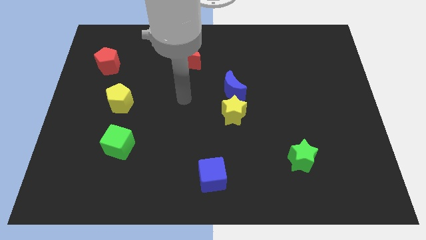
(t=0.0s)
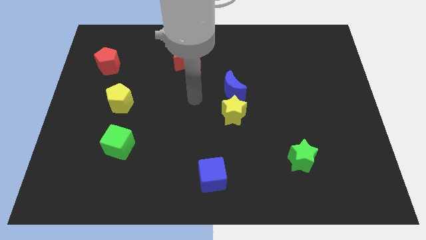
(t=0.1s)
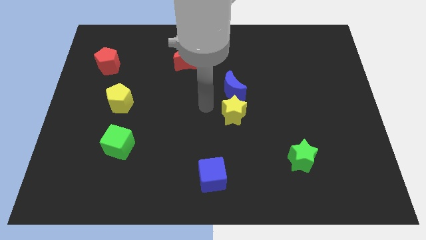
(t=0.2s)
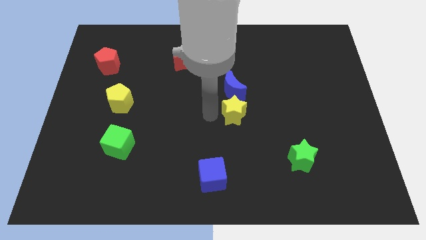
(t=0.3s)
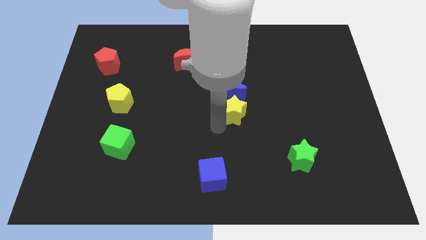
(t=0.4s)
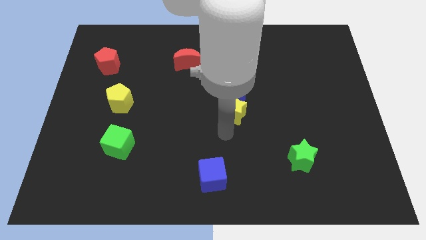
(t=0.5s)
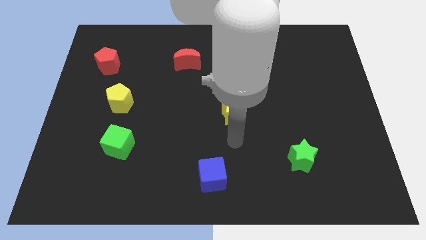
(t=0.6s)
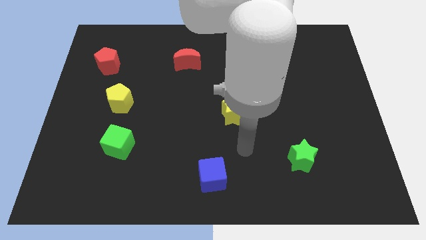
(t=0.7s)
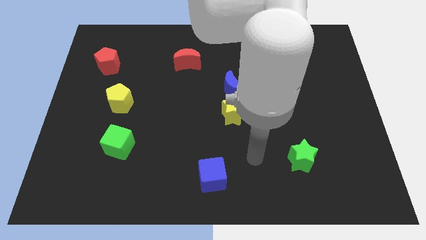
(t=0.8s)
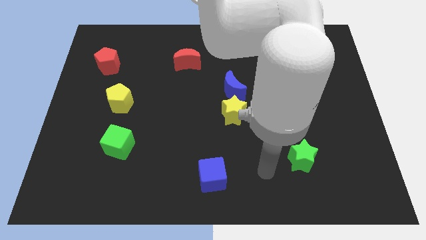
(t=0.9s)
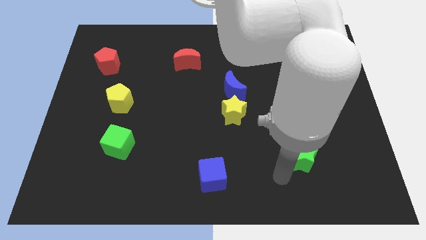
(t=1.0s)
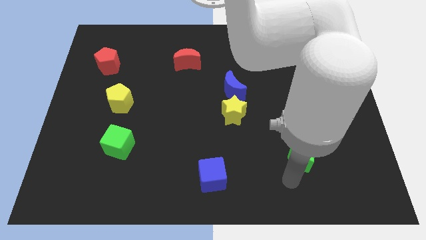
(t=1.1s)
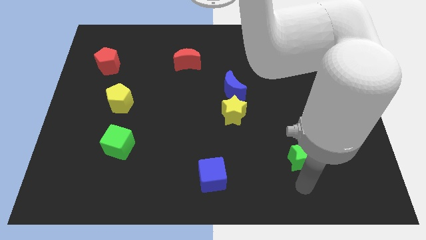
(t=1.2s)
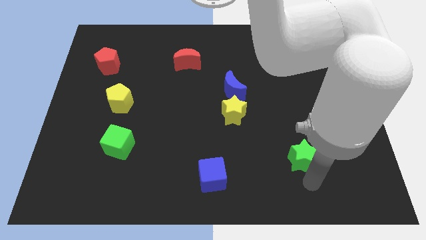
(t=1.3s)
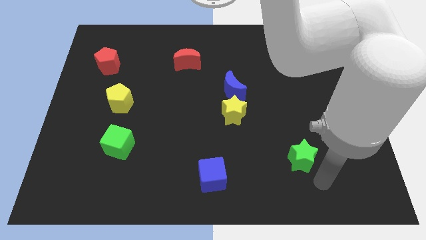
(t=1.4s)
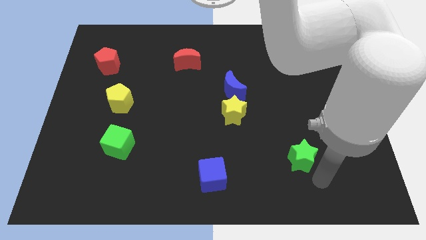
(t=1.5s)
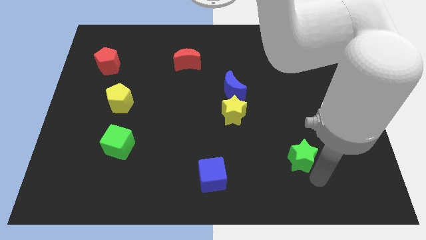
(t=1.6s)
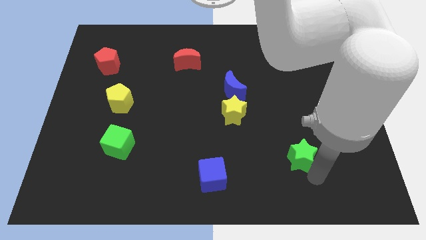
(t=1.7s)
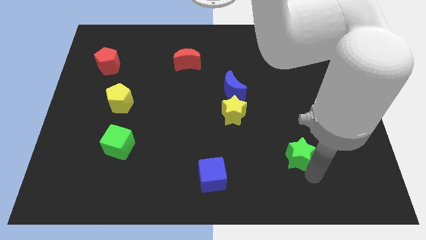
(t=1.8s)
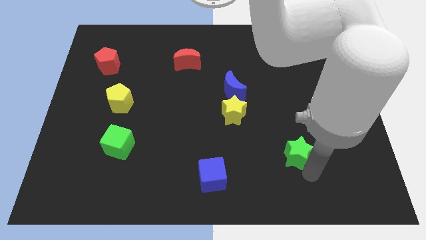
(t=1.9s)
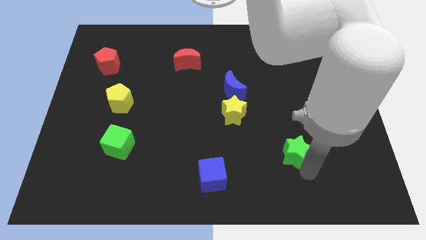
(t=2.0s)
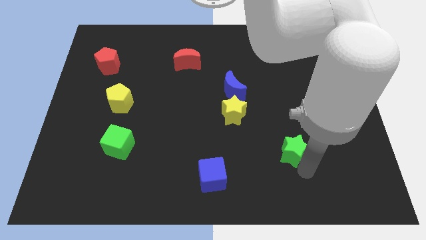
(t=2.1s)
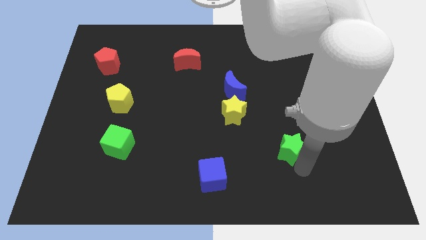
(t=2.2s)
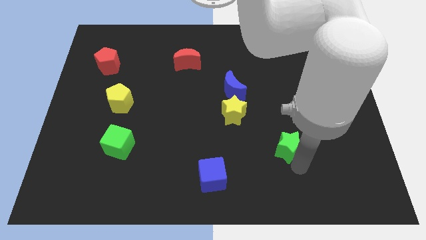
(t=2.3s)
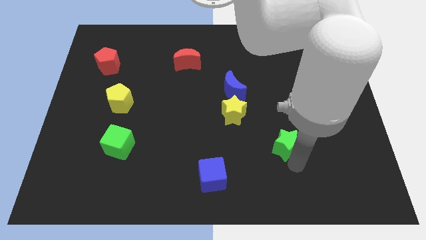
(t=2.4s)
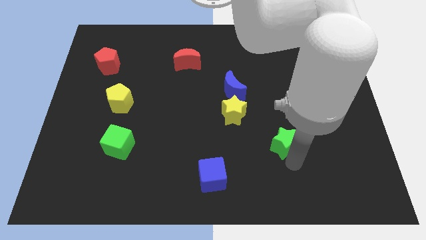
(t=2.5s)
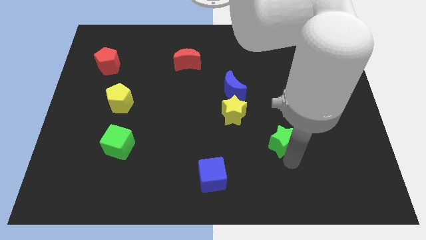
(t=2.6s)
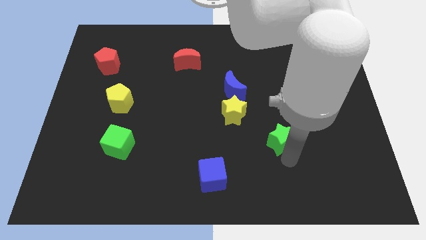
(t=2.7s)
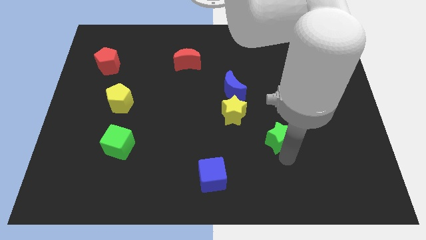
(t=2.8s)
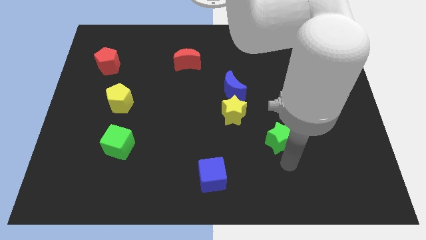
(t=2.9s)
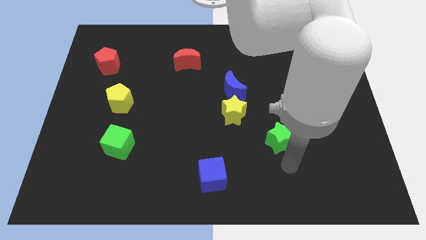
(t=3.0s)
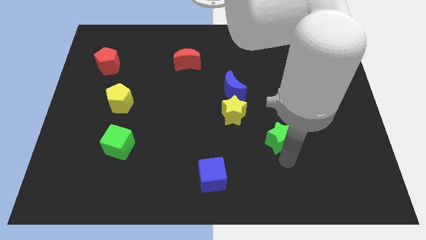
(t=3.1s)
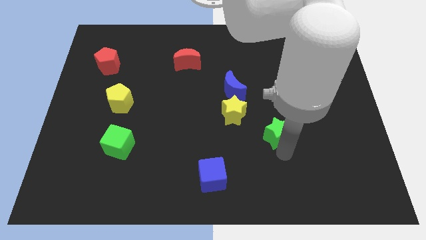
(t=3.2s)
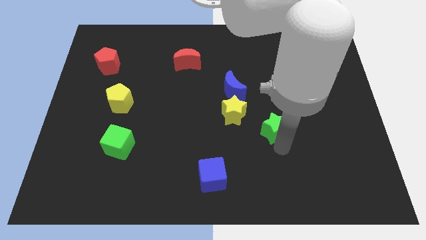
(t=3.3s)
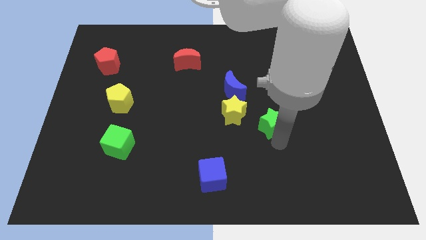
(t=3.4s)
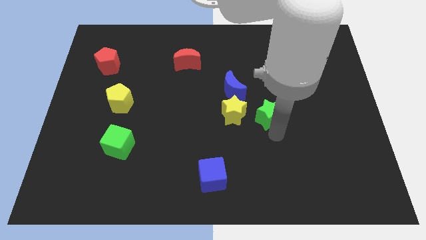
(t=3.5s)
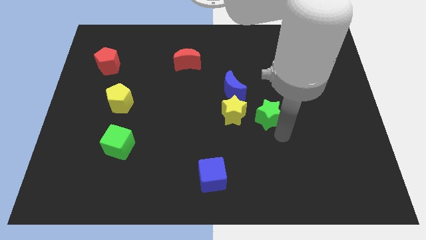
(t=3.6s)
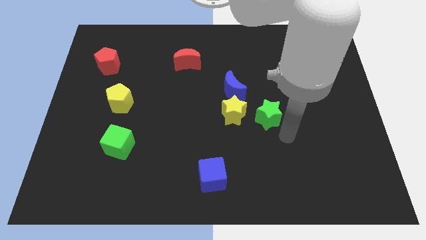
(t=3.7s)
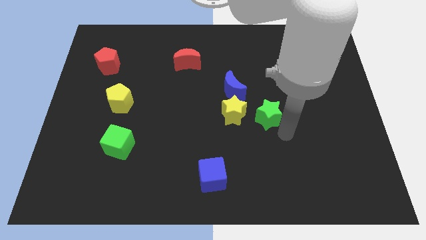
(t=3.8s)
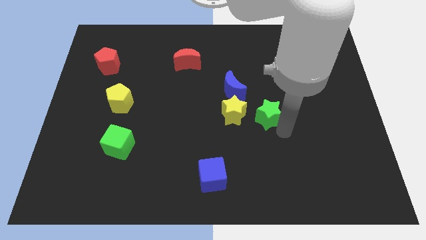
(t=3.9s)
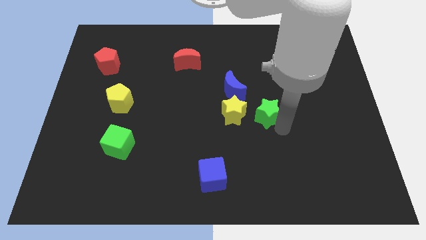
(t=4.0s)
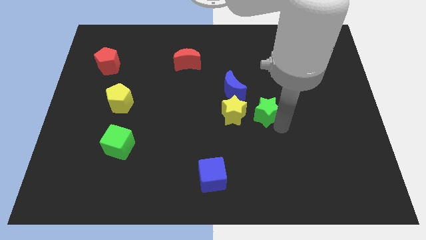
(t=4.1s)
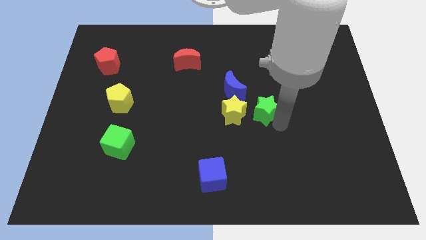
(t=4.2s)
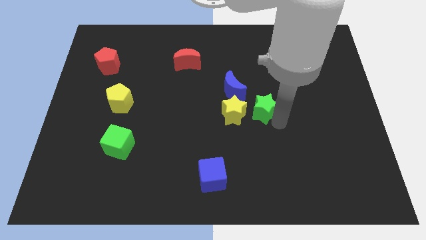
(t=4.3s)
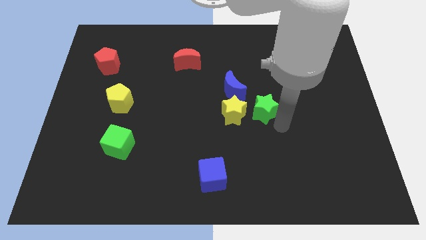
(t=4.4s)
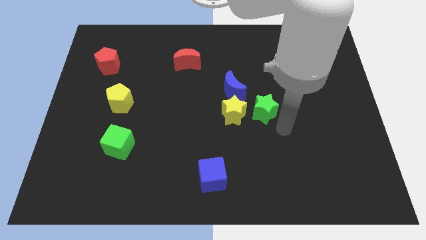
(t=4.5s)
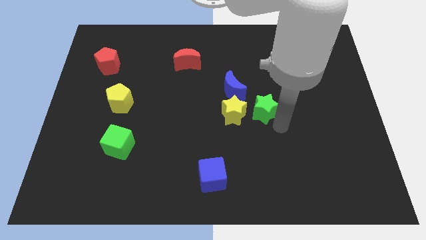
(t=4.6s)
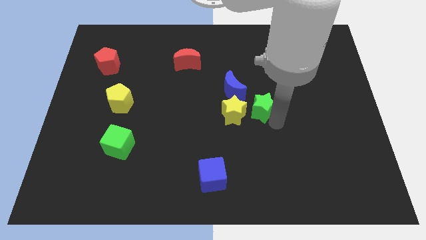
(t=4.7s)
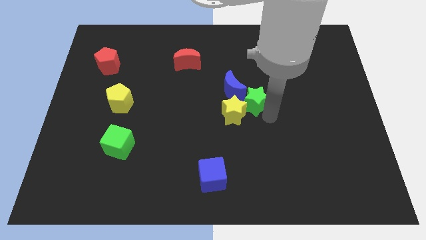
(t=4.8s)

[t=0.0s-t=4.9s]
slide the green star to the blue moon

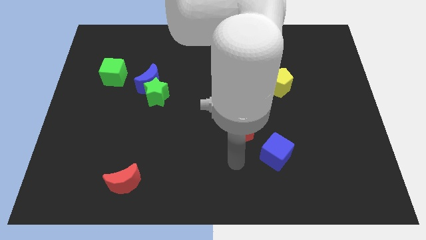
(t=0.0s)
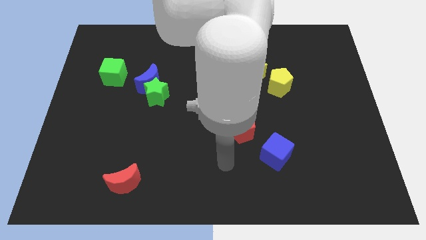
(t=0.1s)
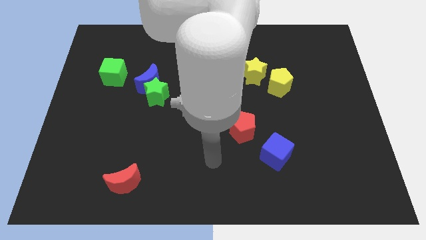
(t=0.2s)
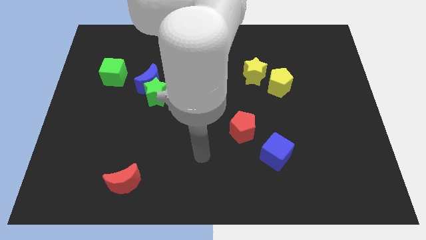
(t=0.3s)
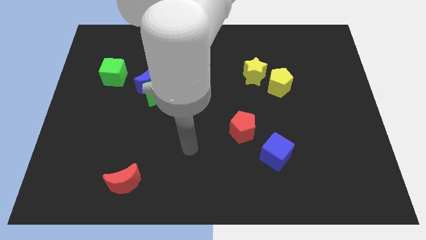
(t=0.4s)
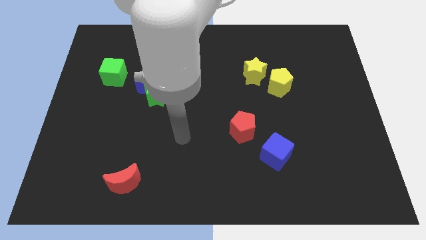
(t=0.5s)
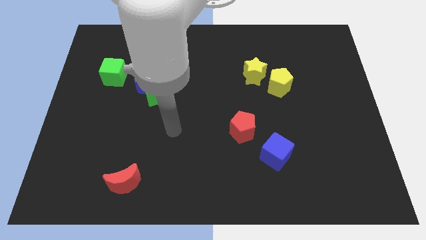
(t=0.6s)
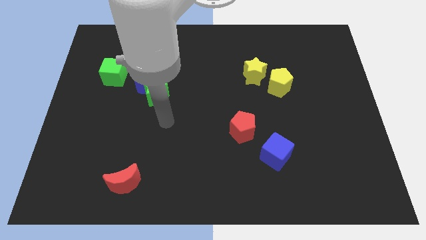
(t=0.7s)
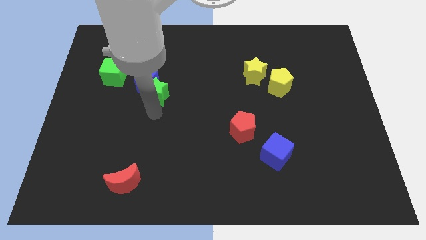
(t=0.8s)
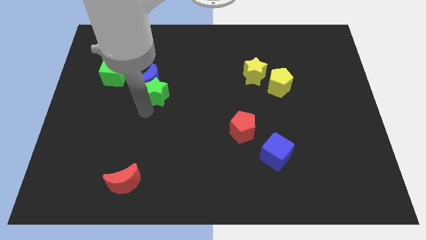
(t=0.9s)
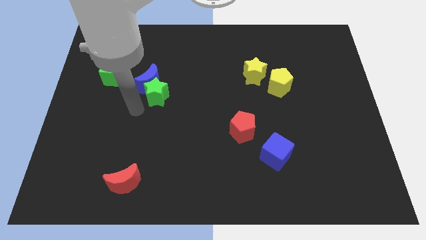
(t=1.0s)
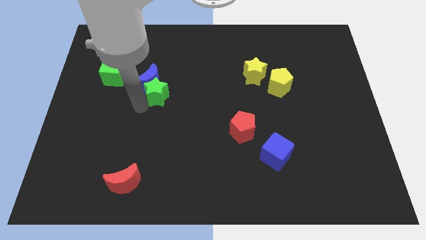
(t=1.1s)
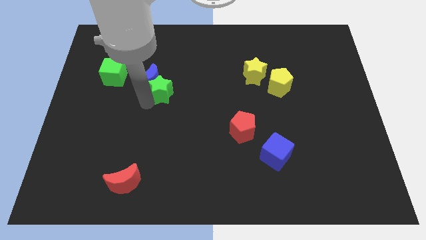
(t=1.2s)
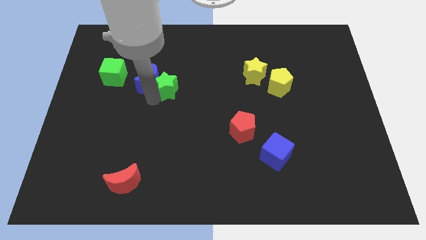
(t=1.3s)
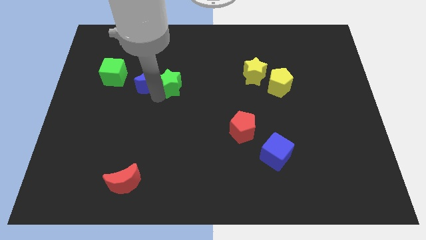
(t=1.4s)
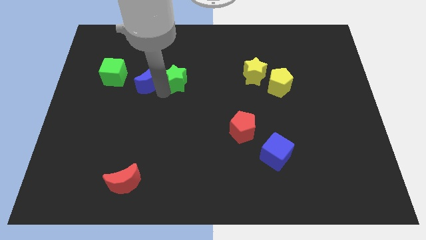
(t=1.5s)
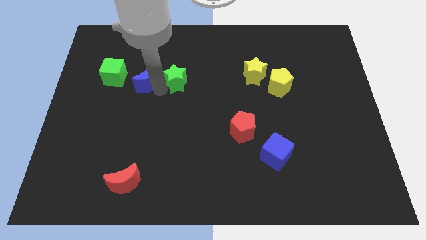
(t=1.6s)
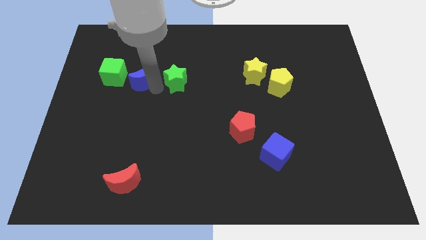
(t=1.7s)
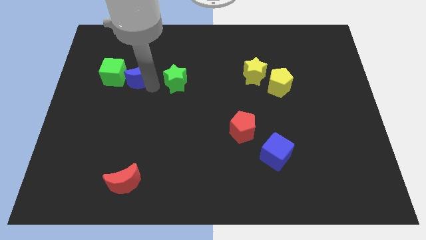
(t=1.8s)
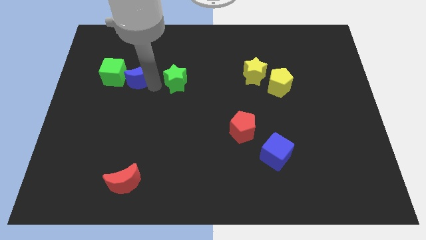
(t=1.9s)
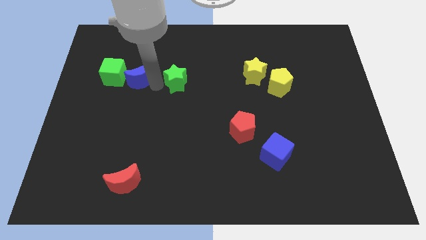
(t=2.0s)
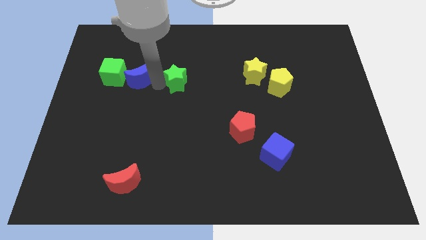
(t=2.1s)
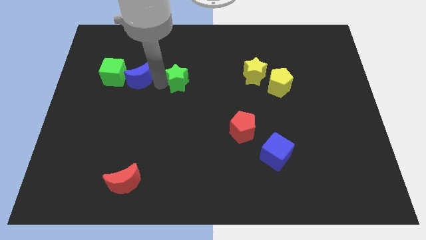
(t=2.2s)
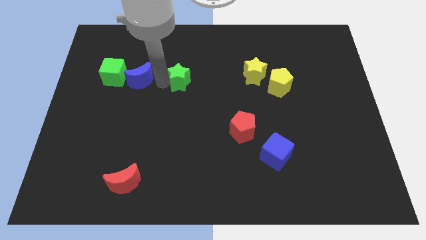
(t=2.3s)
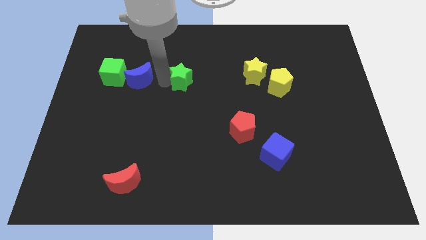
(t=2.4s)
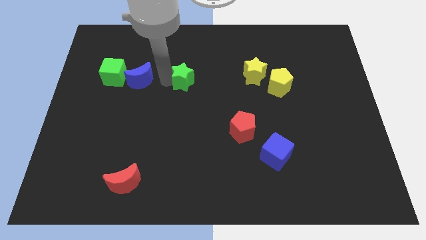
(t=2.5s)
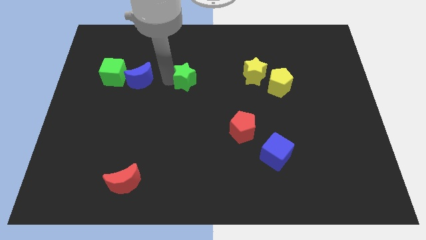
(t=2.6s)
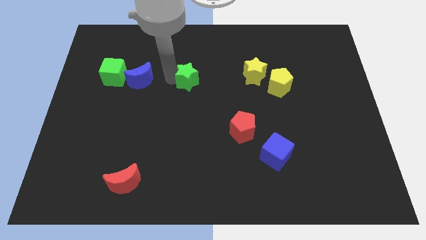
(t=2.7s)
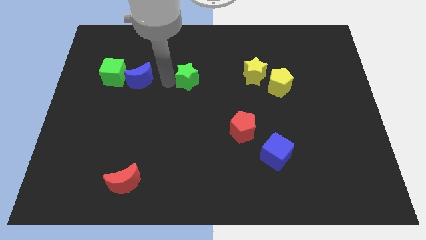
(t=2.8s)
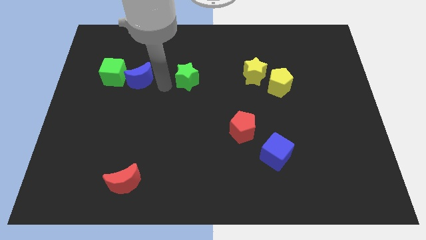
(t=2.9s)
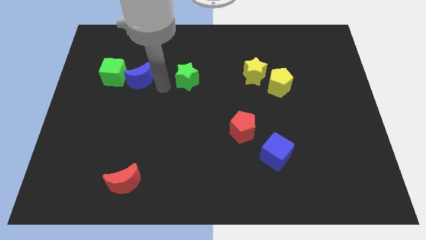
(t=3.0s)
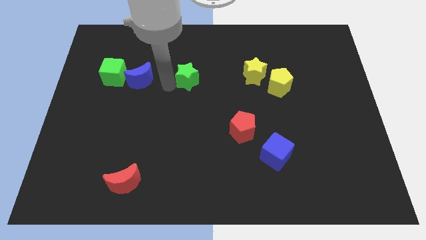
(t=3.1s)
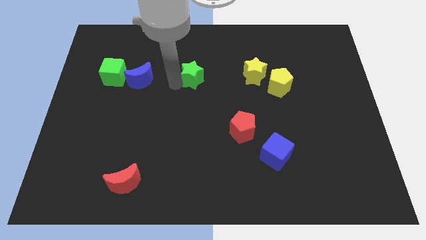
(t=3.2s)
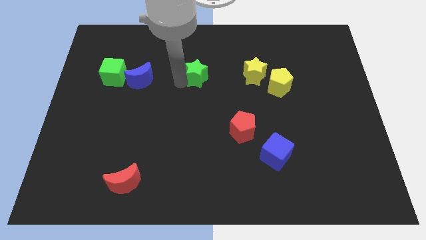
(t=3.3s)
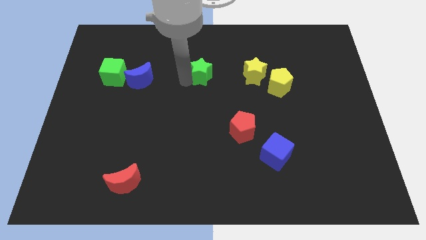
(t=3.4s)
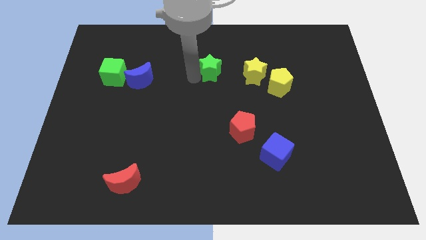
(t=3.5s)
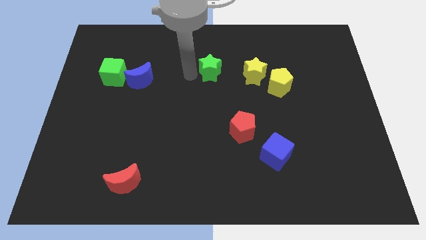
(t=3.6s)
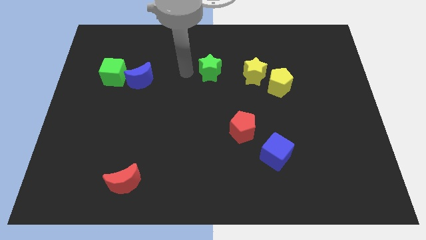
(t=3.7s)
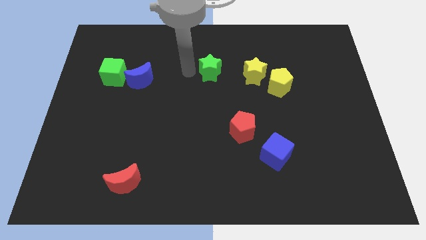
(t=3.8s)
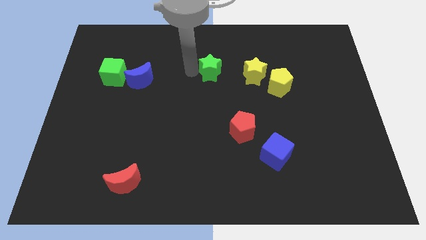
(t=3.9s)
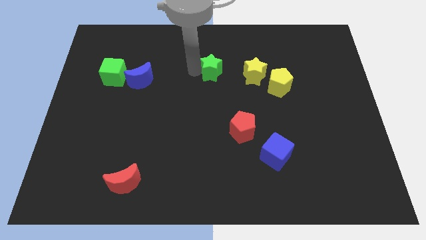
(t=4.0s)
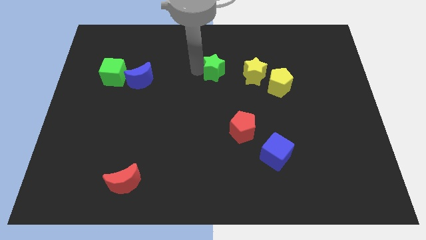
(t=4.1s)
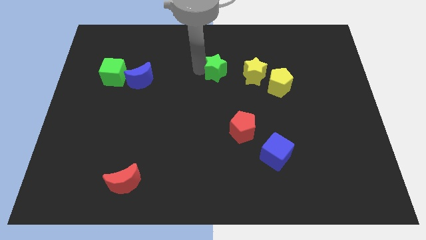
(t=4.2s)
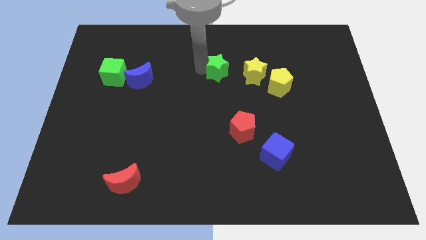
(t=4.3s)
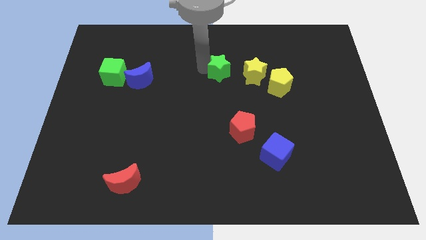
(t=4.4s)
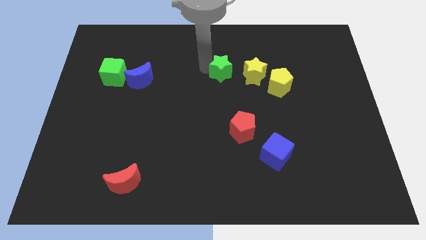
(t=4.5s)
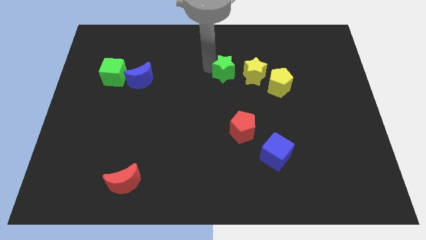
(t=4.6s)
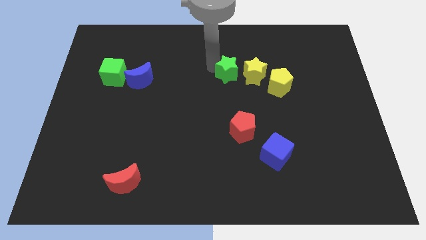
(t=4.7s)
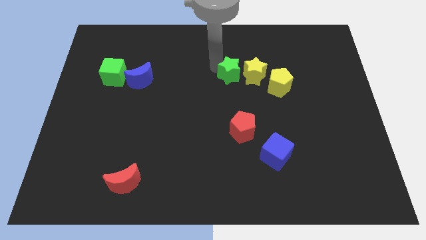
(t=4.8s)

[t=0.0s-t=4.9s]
move the green star close to the yellow star
